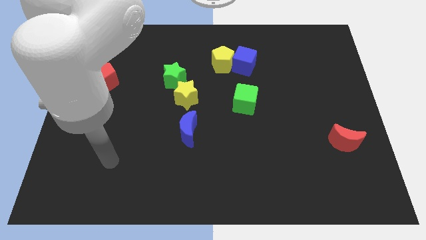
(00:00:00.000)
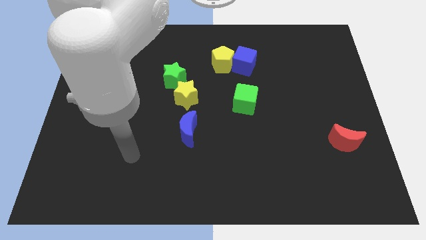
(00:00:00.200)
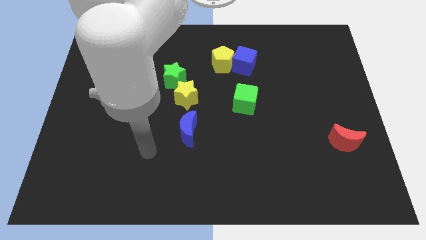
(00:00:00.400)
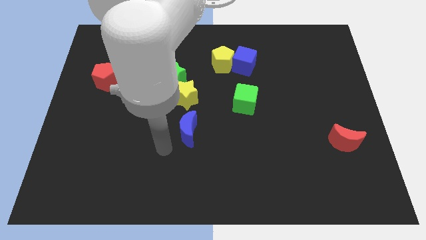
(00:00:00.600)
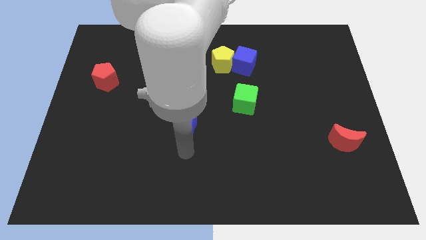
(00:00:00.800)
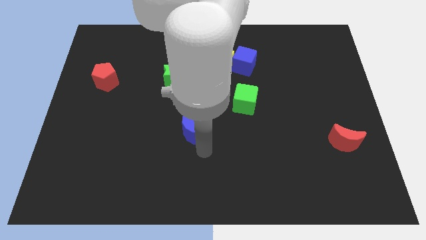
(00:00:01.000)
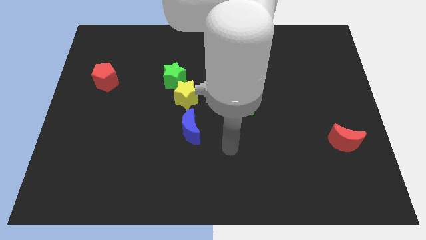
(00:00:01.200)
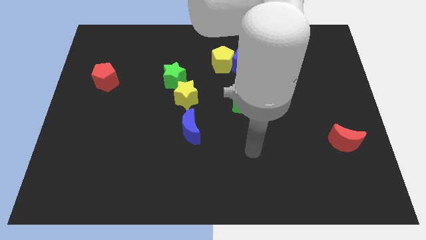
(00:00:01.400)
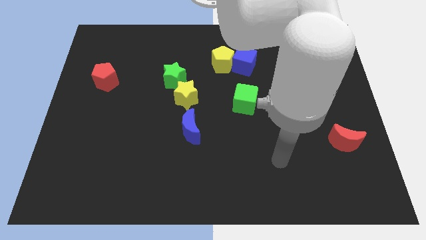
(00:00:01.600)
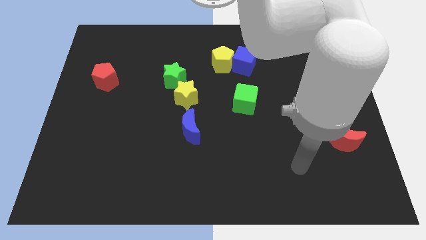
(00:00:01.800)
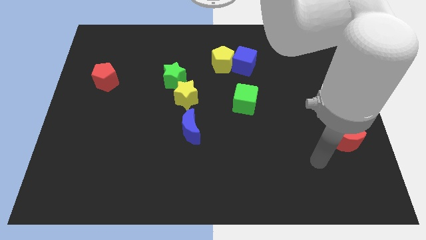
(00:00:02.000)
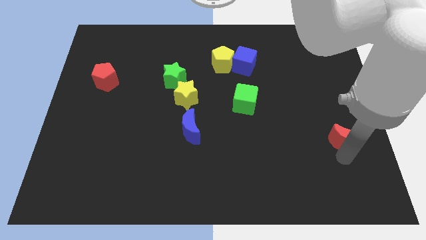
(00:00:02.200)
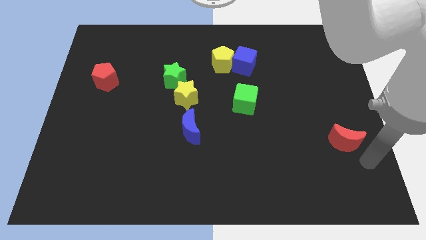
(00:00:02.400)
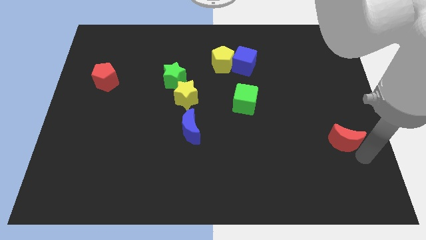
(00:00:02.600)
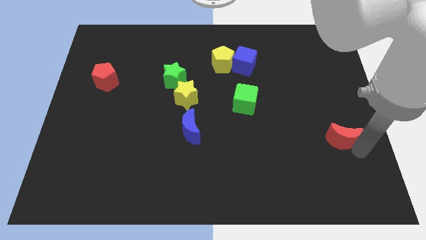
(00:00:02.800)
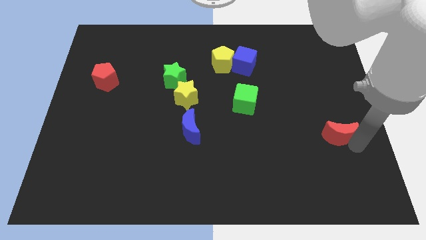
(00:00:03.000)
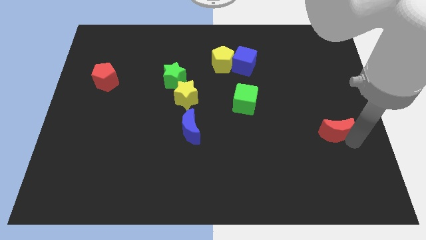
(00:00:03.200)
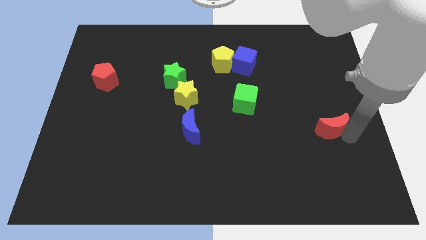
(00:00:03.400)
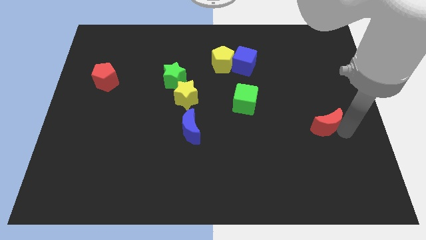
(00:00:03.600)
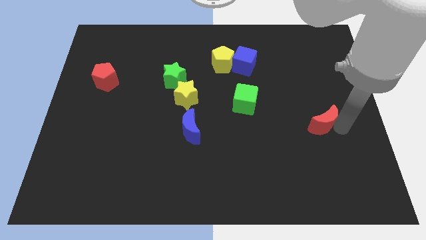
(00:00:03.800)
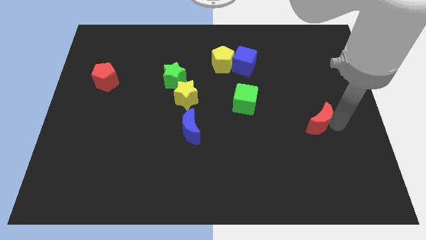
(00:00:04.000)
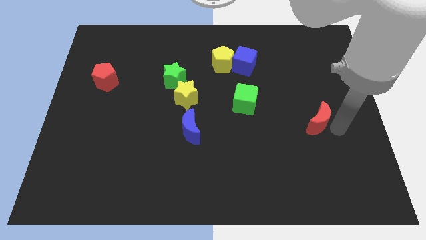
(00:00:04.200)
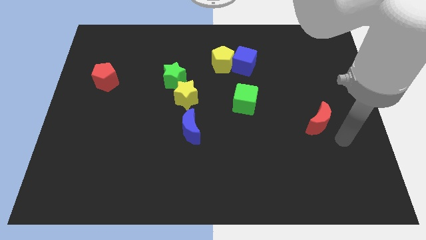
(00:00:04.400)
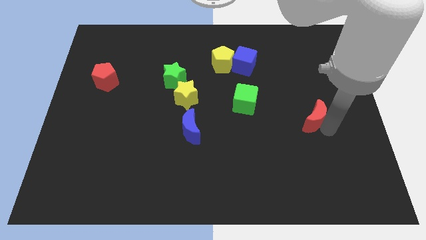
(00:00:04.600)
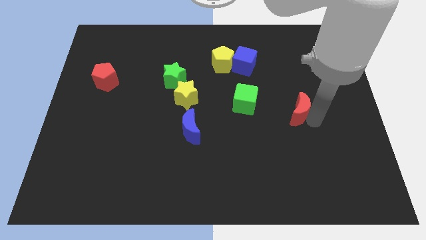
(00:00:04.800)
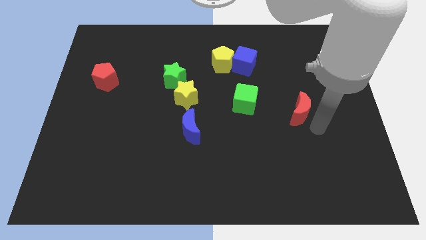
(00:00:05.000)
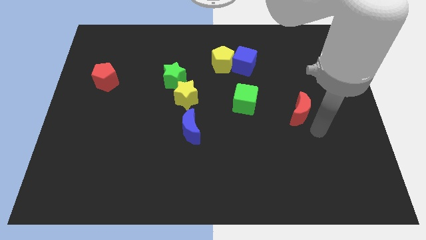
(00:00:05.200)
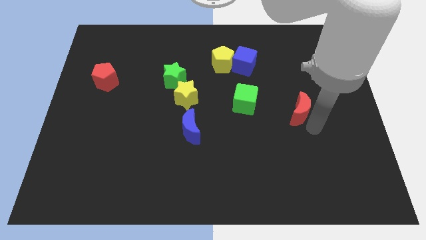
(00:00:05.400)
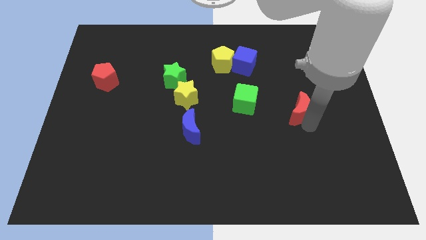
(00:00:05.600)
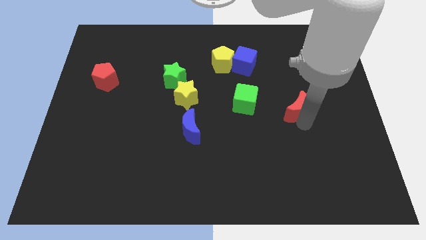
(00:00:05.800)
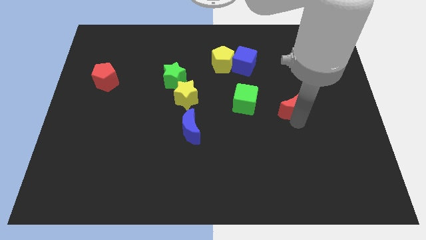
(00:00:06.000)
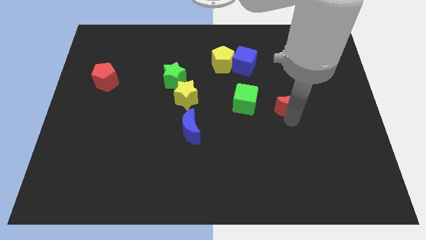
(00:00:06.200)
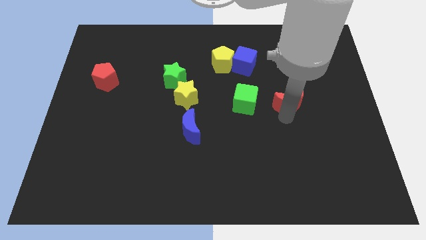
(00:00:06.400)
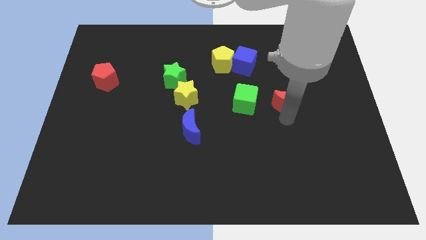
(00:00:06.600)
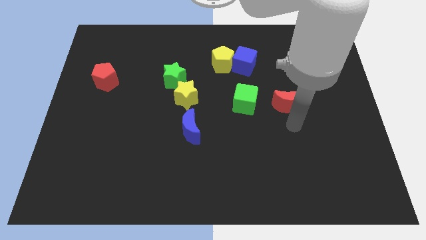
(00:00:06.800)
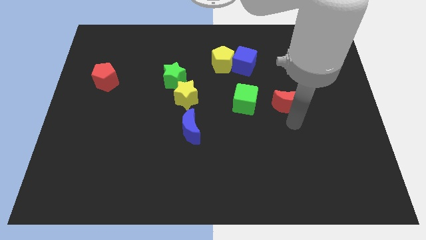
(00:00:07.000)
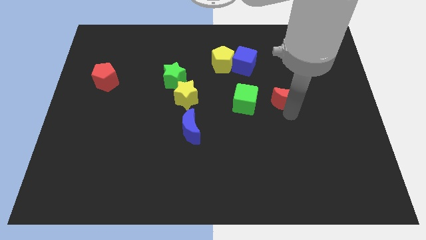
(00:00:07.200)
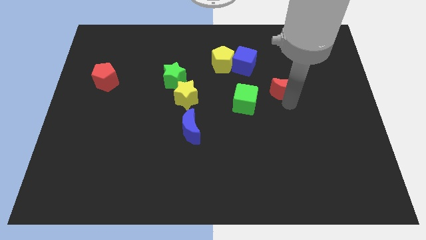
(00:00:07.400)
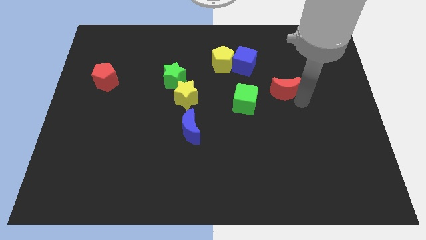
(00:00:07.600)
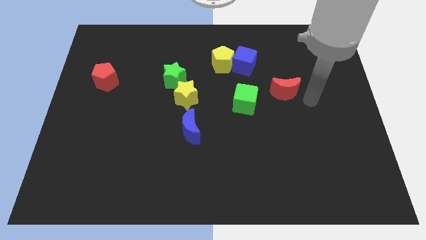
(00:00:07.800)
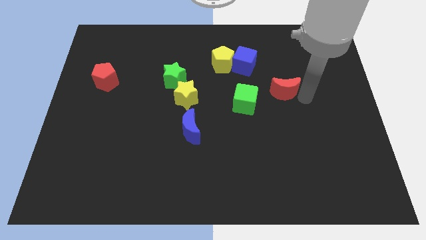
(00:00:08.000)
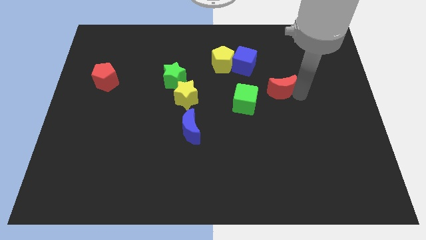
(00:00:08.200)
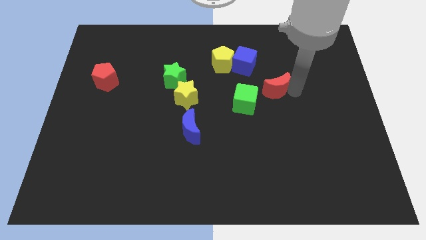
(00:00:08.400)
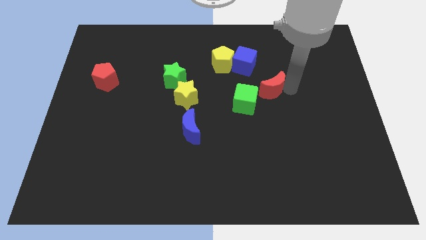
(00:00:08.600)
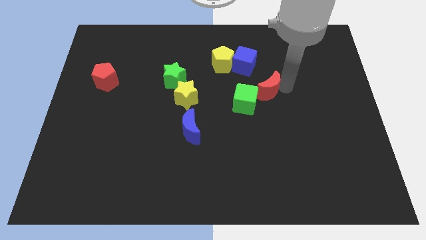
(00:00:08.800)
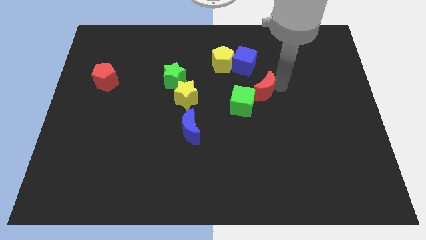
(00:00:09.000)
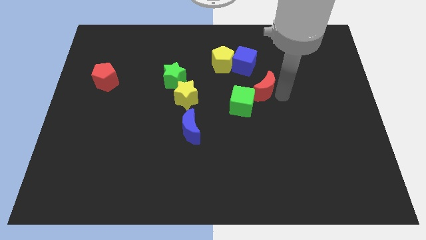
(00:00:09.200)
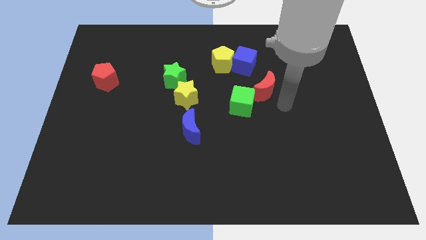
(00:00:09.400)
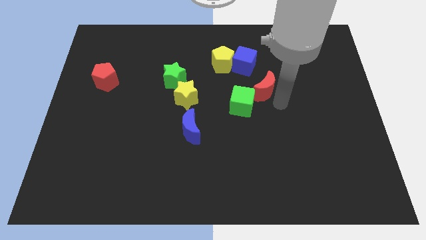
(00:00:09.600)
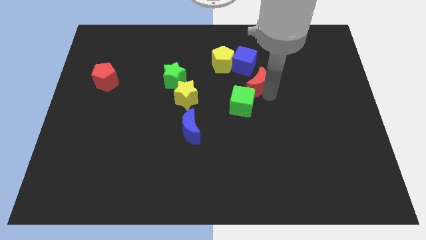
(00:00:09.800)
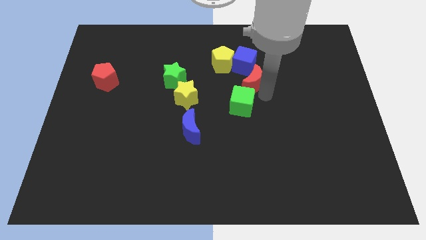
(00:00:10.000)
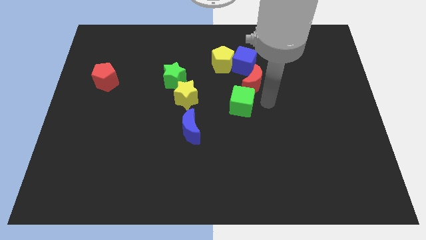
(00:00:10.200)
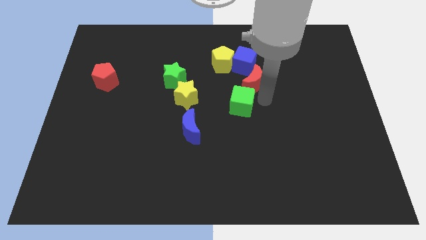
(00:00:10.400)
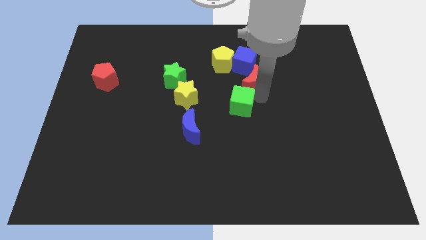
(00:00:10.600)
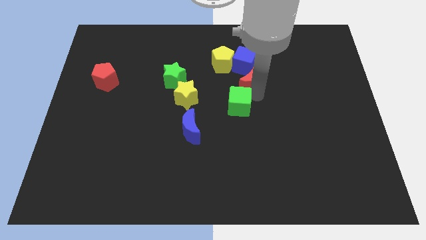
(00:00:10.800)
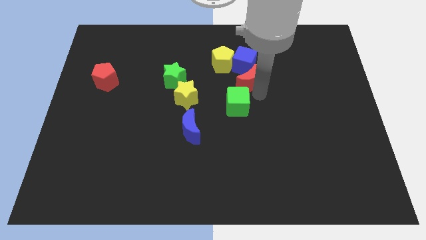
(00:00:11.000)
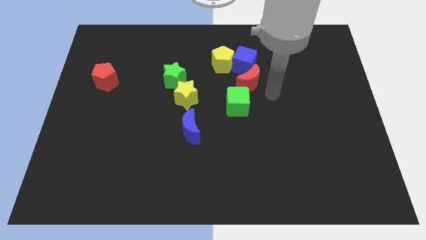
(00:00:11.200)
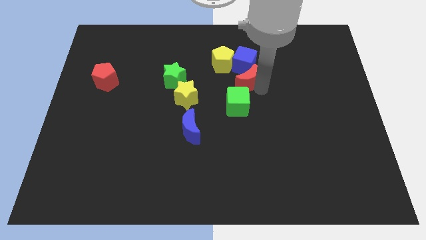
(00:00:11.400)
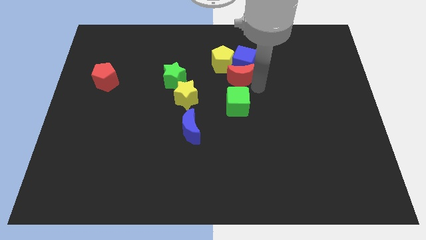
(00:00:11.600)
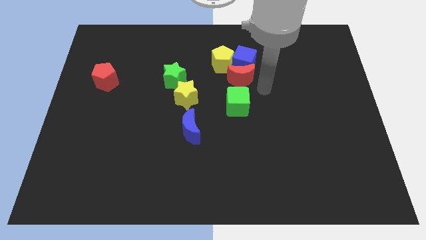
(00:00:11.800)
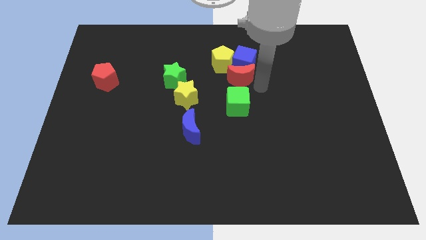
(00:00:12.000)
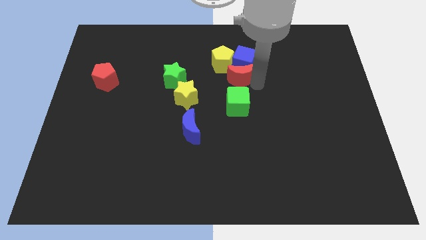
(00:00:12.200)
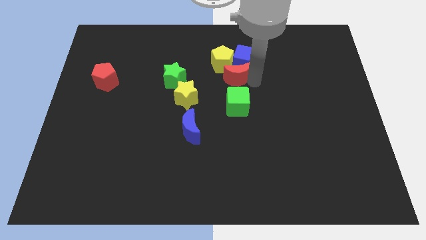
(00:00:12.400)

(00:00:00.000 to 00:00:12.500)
put the red moon close to the yellow pentagon

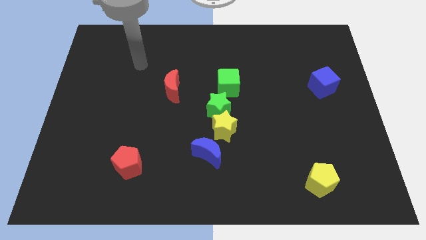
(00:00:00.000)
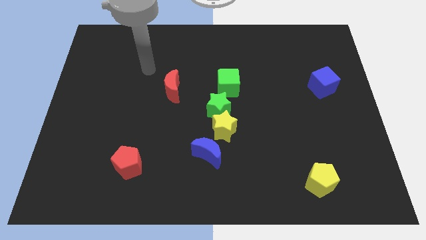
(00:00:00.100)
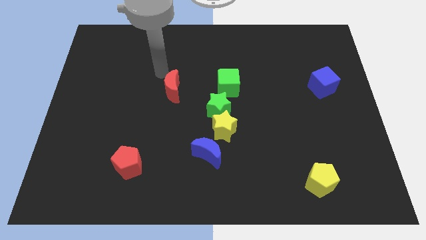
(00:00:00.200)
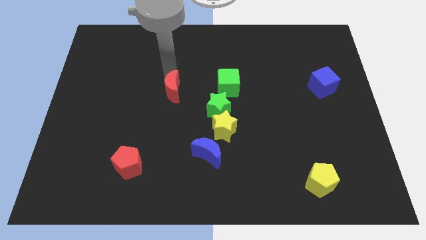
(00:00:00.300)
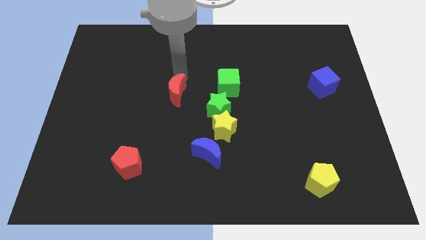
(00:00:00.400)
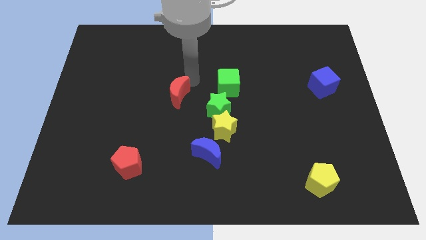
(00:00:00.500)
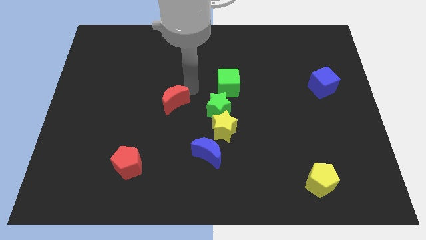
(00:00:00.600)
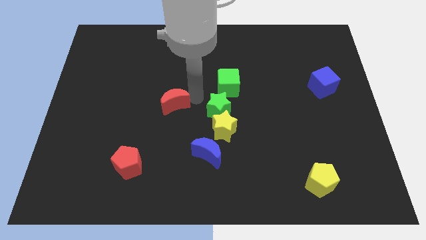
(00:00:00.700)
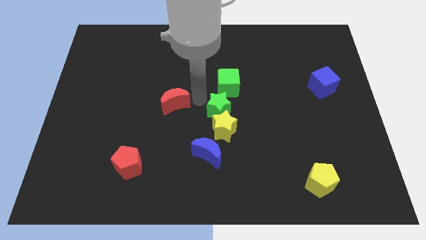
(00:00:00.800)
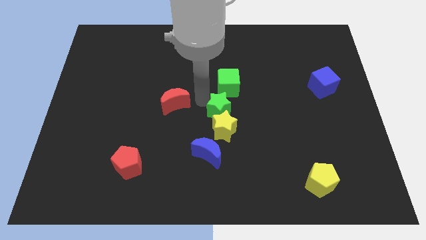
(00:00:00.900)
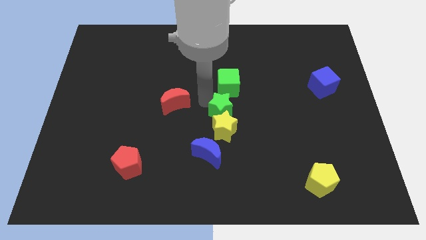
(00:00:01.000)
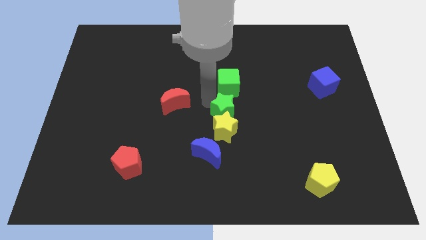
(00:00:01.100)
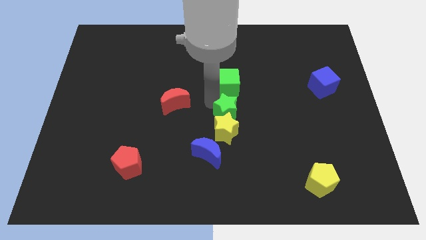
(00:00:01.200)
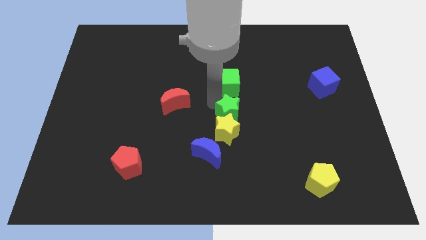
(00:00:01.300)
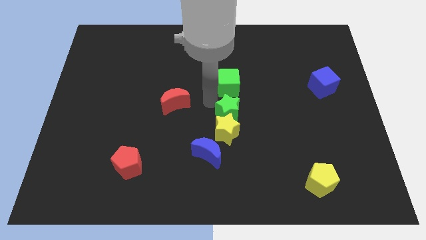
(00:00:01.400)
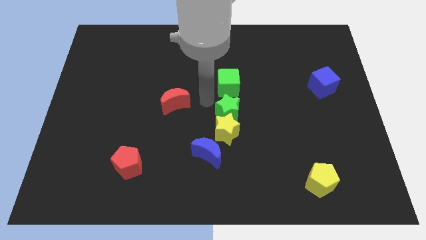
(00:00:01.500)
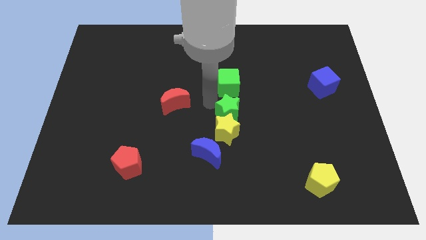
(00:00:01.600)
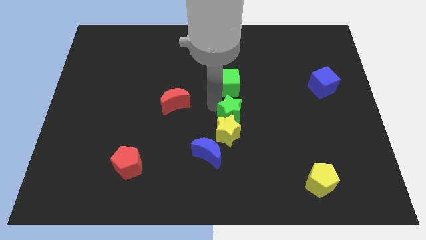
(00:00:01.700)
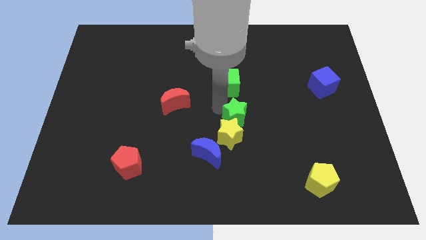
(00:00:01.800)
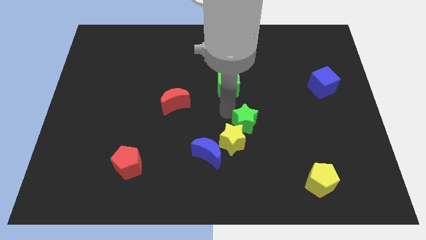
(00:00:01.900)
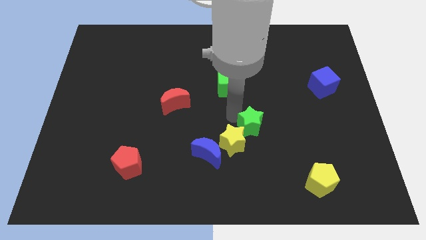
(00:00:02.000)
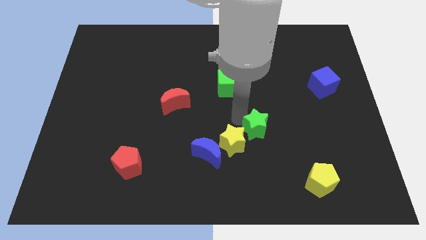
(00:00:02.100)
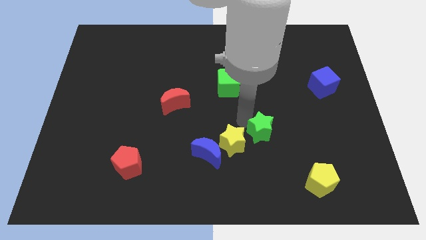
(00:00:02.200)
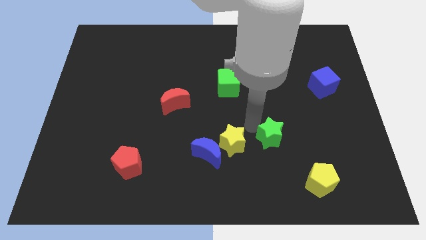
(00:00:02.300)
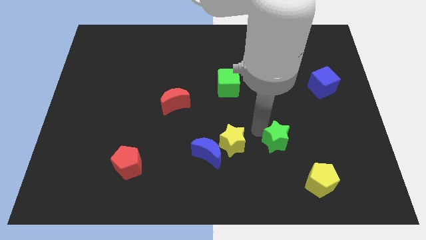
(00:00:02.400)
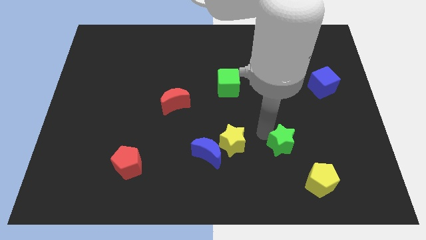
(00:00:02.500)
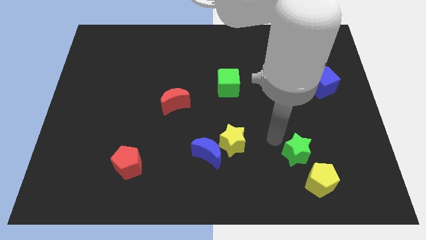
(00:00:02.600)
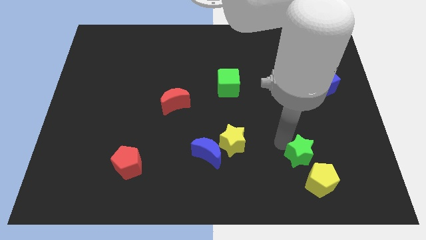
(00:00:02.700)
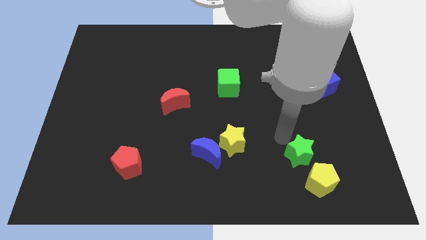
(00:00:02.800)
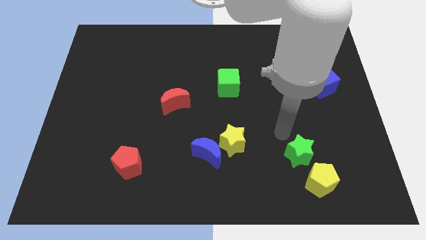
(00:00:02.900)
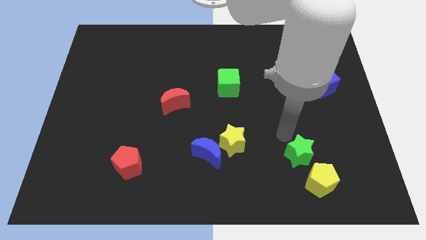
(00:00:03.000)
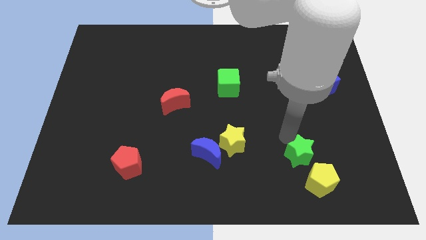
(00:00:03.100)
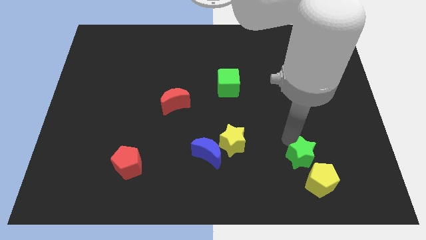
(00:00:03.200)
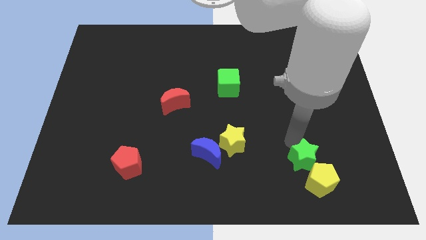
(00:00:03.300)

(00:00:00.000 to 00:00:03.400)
push the green star to the yellow pentagon
